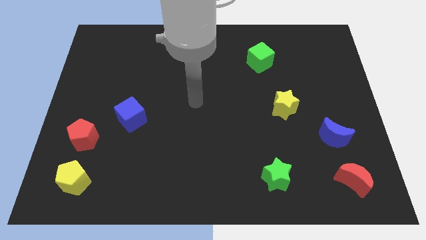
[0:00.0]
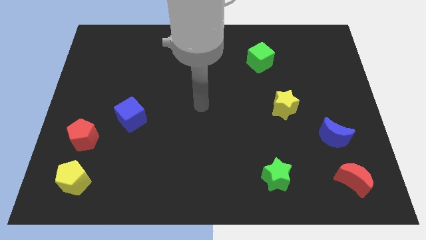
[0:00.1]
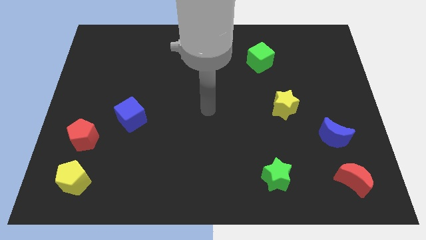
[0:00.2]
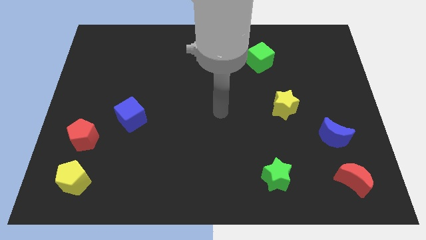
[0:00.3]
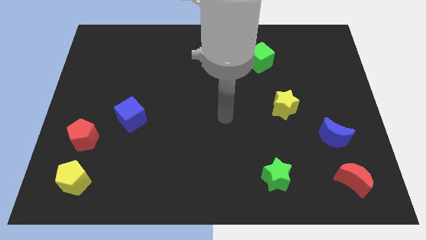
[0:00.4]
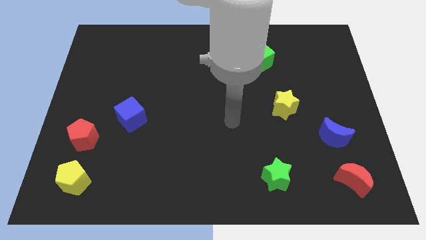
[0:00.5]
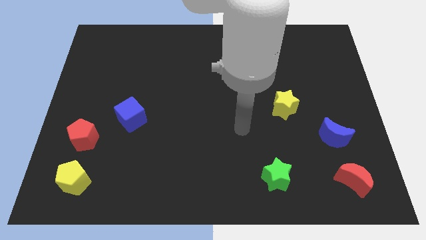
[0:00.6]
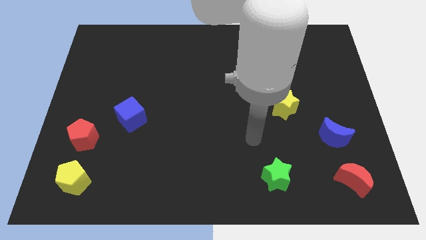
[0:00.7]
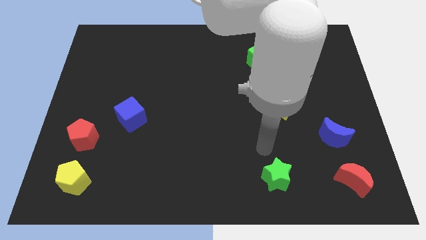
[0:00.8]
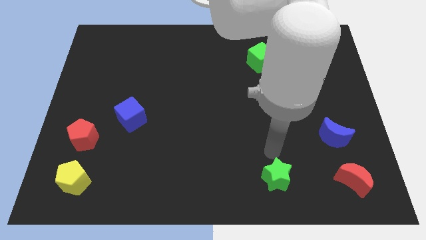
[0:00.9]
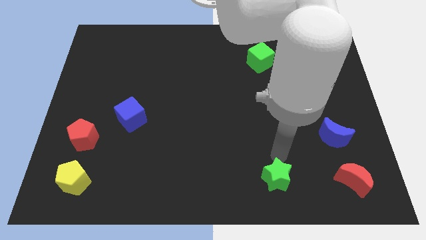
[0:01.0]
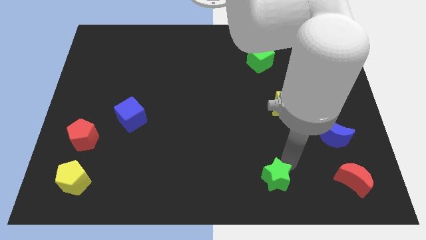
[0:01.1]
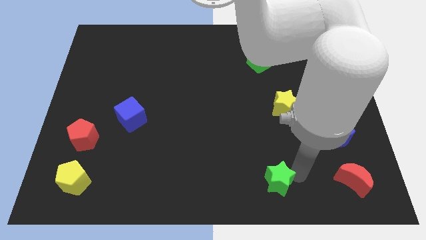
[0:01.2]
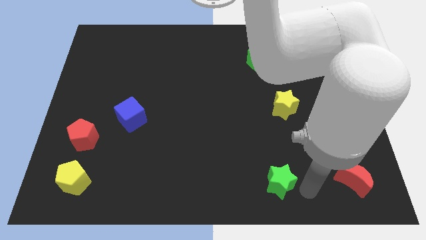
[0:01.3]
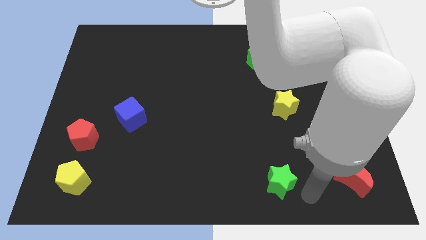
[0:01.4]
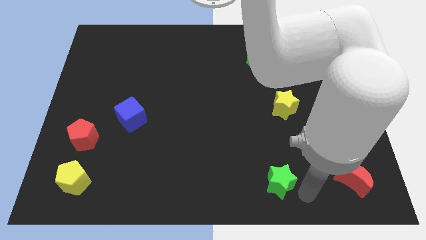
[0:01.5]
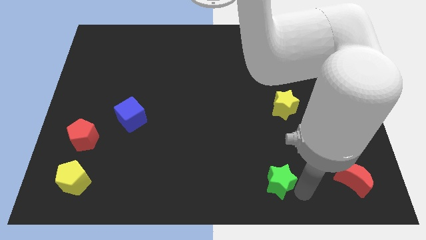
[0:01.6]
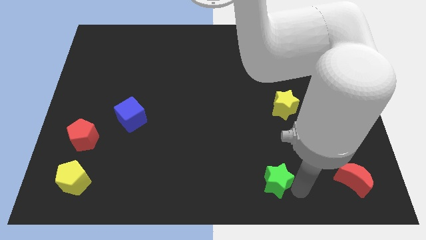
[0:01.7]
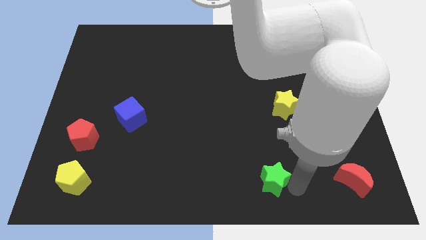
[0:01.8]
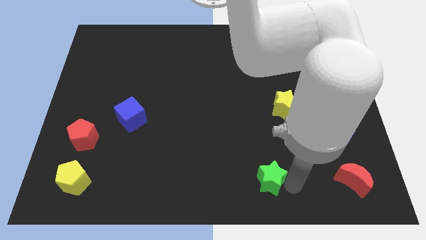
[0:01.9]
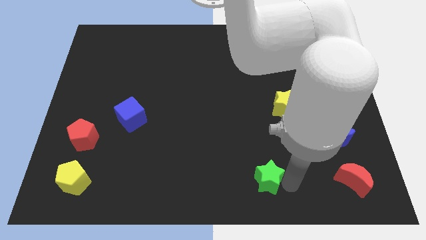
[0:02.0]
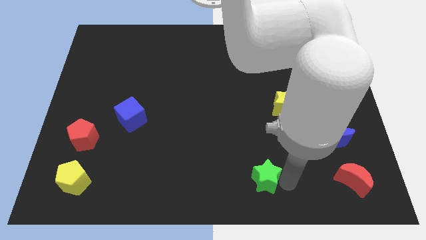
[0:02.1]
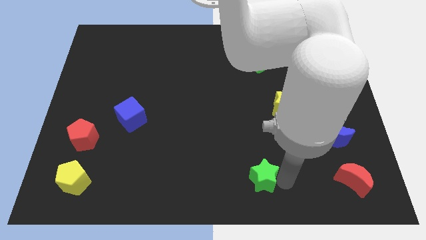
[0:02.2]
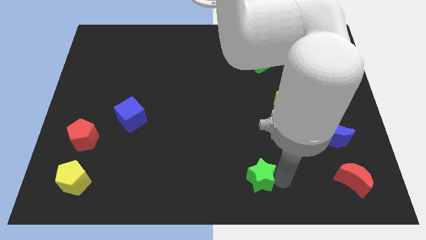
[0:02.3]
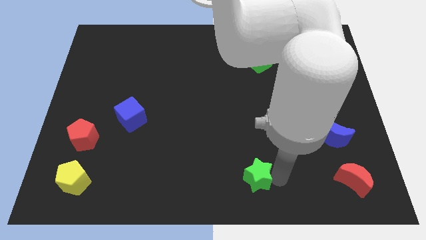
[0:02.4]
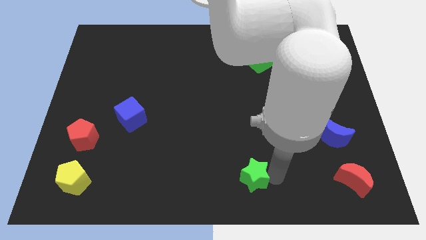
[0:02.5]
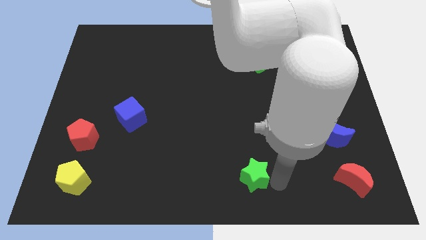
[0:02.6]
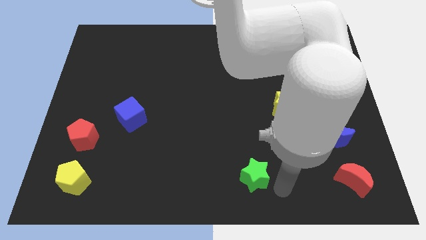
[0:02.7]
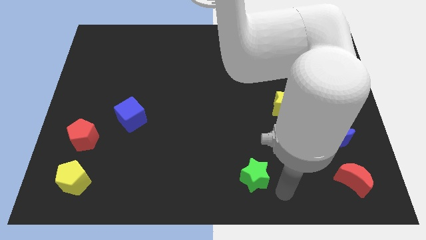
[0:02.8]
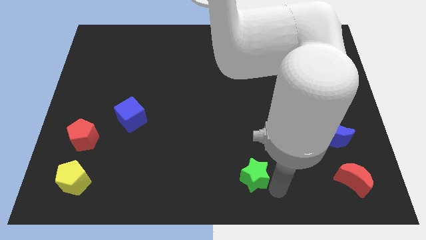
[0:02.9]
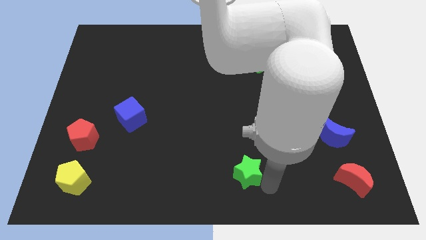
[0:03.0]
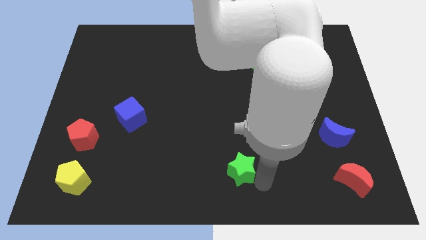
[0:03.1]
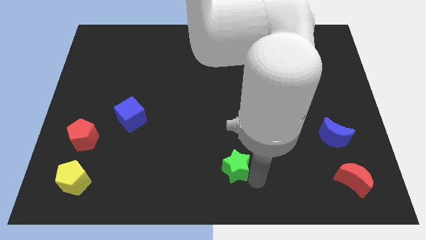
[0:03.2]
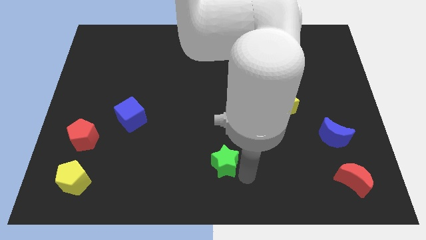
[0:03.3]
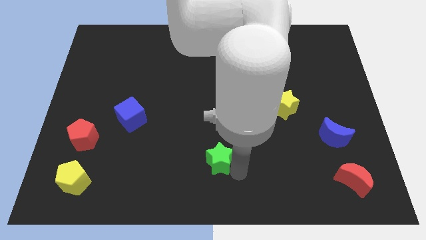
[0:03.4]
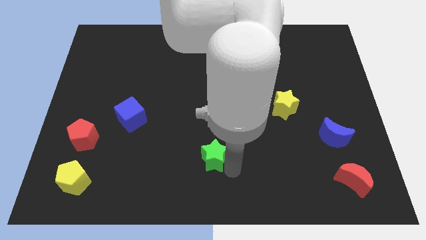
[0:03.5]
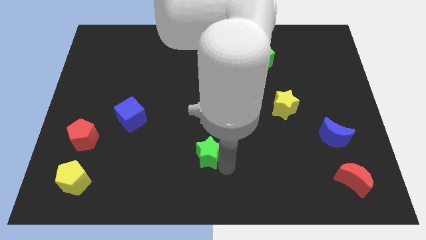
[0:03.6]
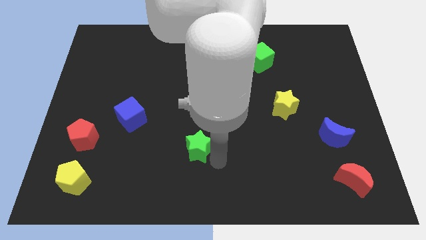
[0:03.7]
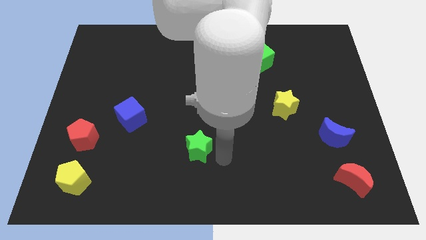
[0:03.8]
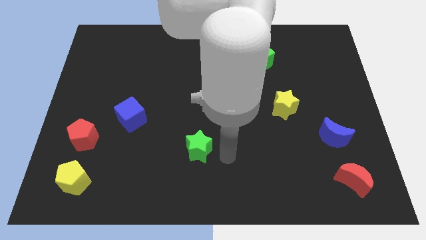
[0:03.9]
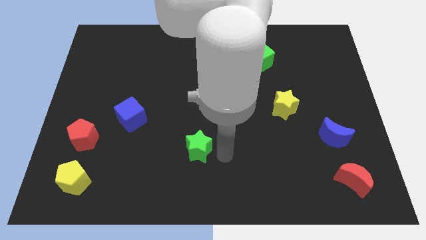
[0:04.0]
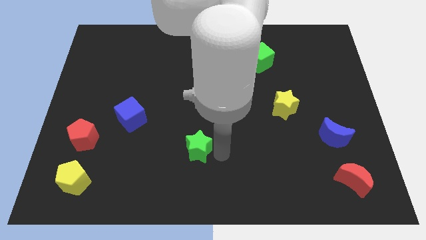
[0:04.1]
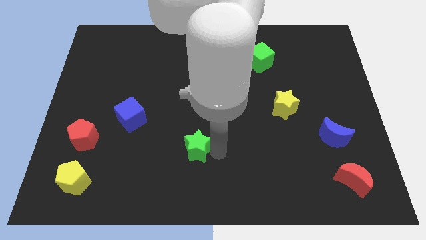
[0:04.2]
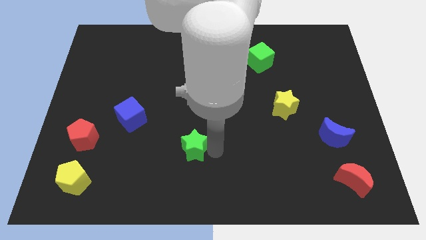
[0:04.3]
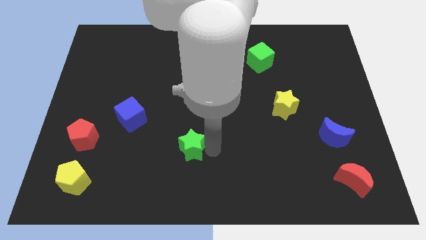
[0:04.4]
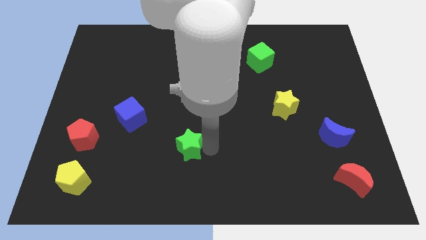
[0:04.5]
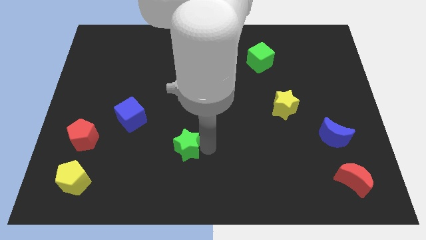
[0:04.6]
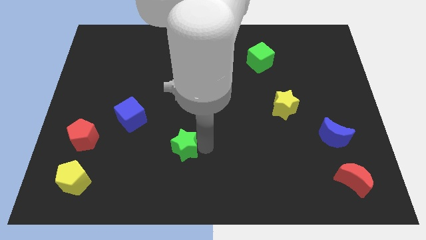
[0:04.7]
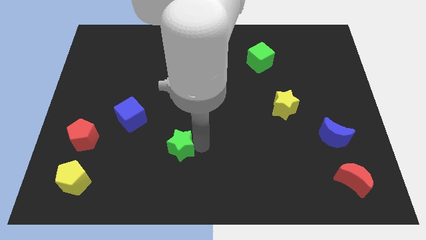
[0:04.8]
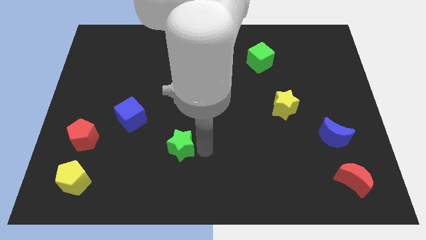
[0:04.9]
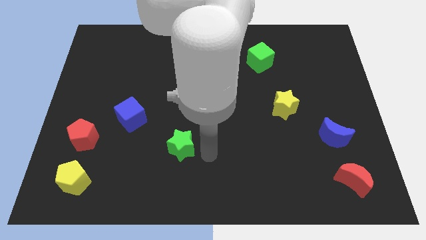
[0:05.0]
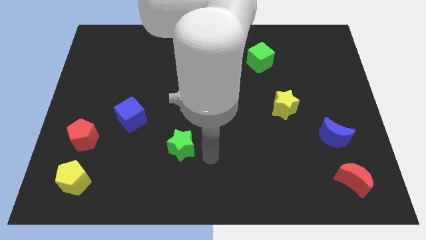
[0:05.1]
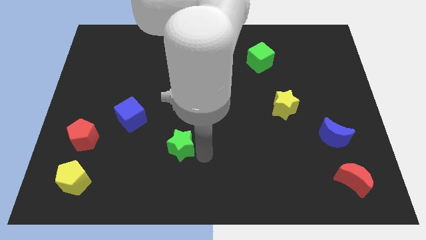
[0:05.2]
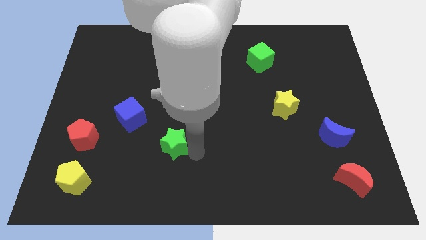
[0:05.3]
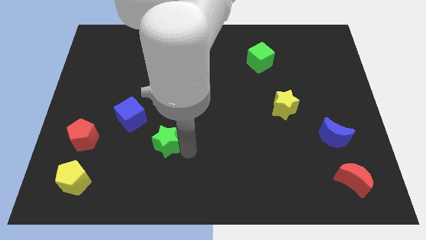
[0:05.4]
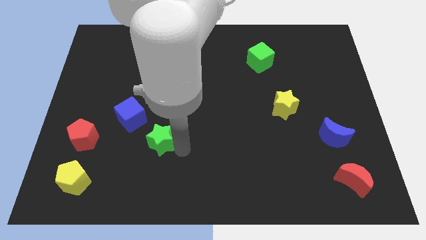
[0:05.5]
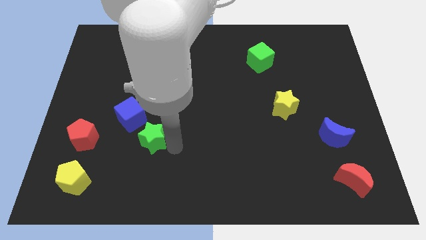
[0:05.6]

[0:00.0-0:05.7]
slide the green star just right of the red pentagon

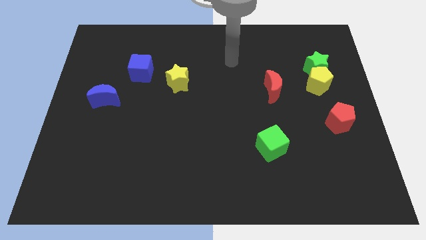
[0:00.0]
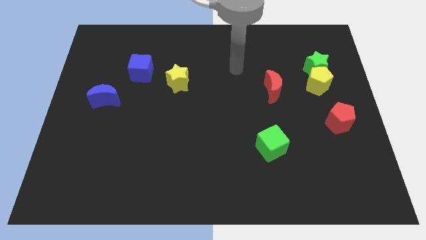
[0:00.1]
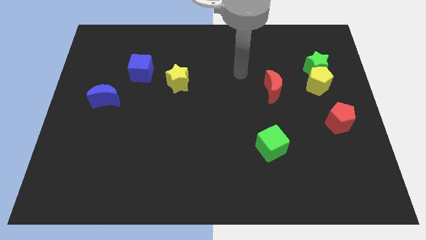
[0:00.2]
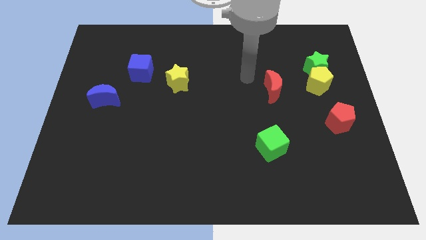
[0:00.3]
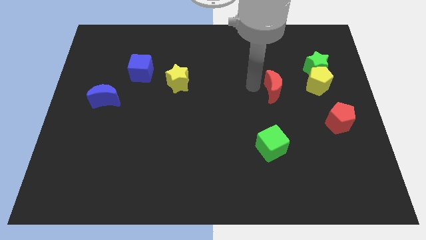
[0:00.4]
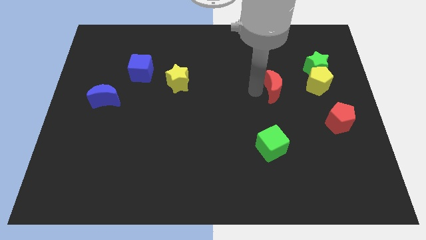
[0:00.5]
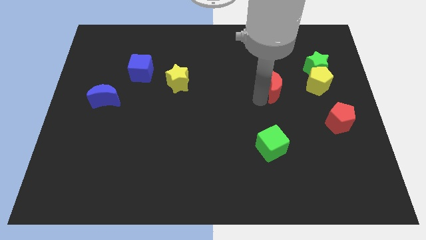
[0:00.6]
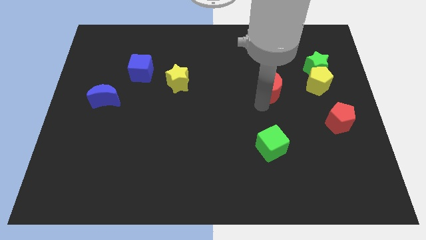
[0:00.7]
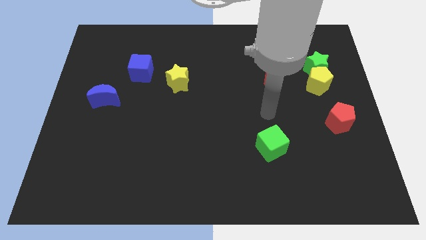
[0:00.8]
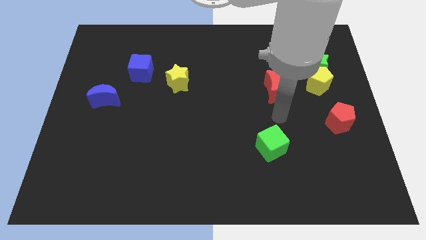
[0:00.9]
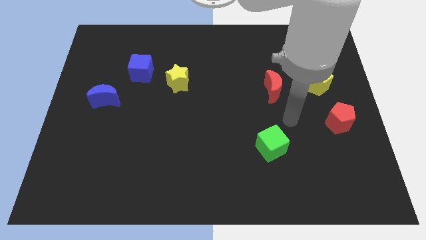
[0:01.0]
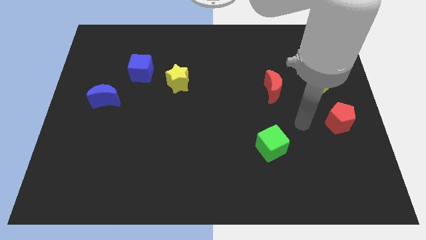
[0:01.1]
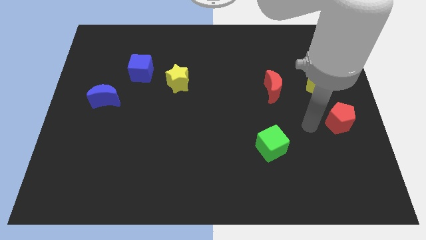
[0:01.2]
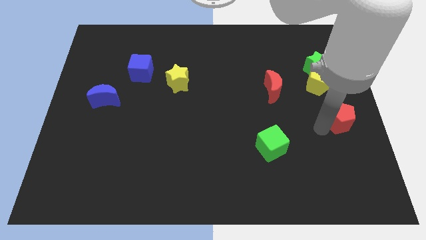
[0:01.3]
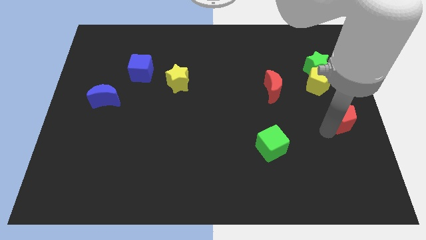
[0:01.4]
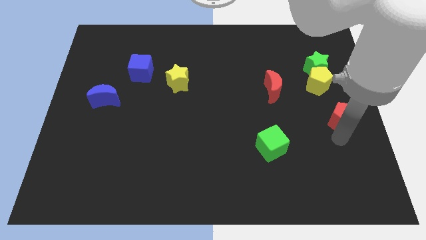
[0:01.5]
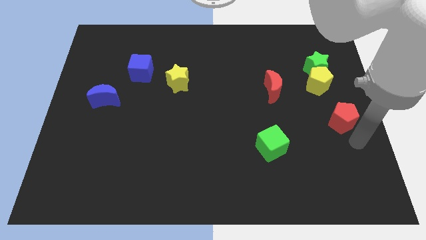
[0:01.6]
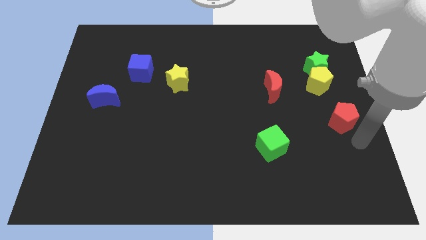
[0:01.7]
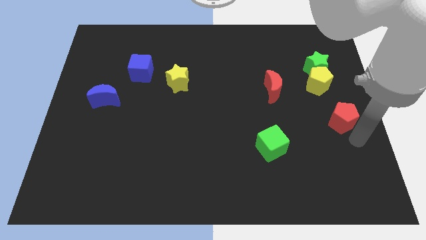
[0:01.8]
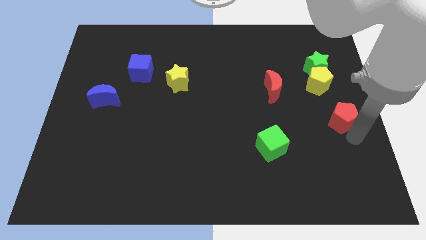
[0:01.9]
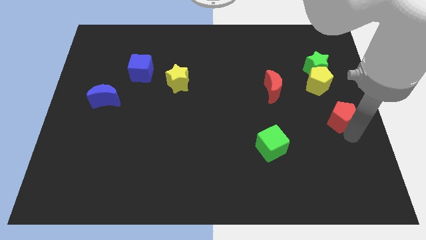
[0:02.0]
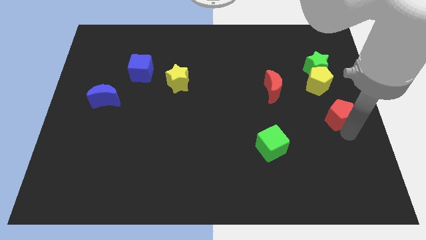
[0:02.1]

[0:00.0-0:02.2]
put the red pentagon below the green star
